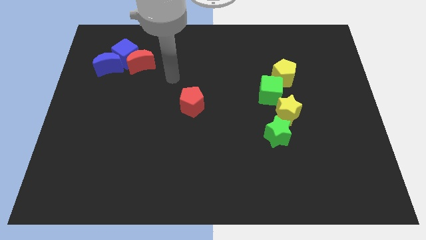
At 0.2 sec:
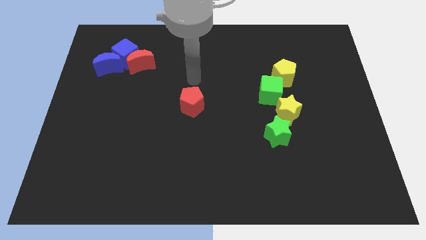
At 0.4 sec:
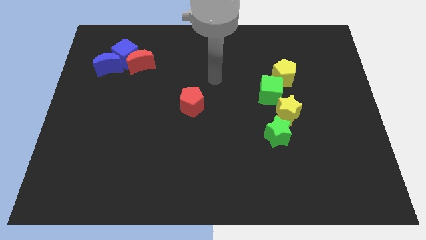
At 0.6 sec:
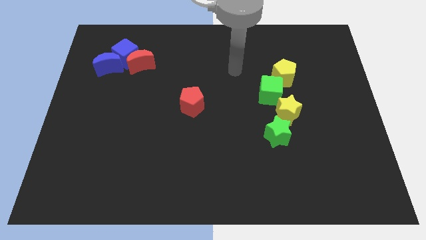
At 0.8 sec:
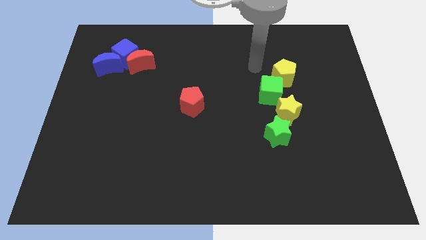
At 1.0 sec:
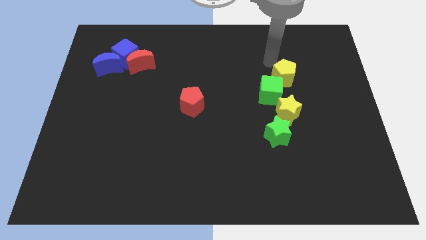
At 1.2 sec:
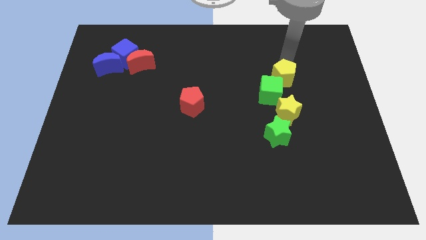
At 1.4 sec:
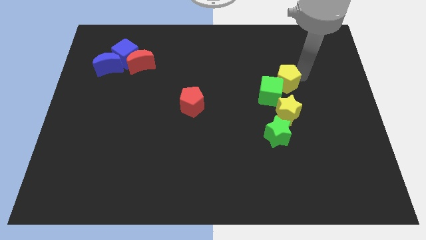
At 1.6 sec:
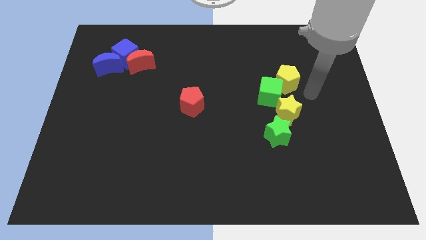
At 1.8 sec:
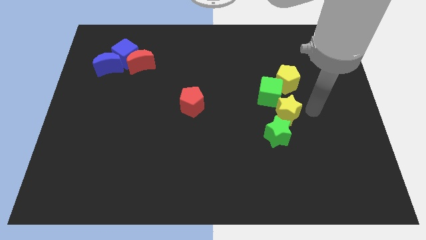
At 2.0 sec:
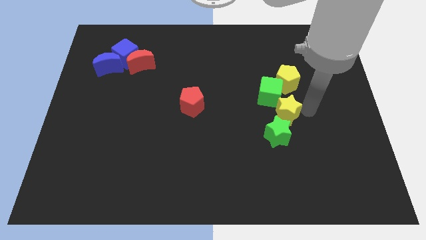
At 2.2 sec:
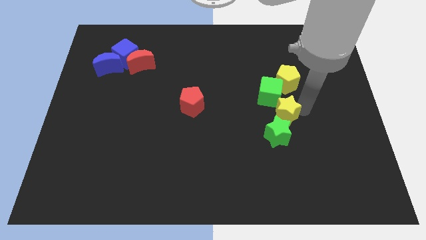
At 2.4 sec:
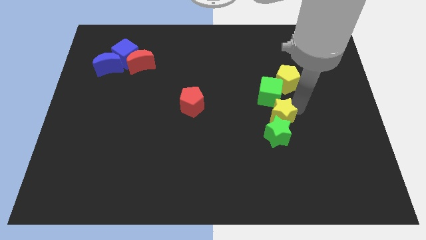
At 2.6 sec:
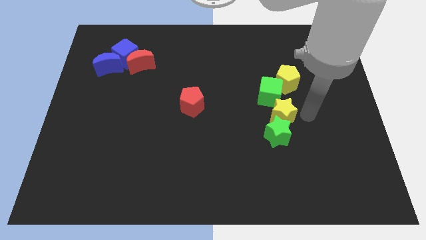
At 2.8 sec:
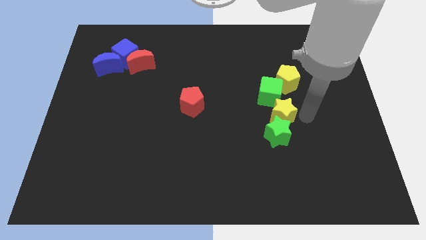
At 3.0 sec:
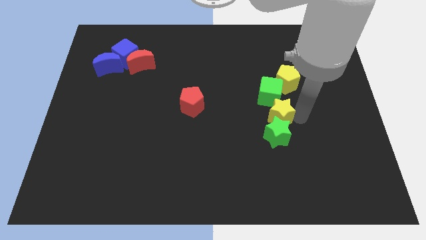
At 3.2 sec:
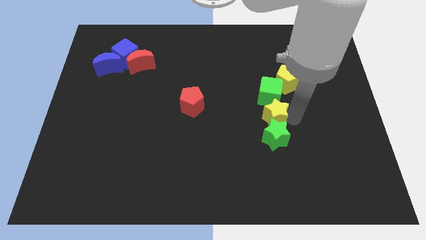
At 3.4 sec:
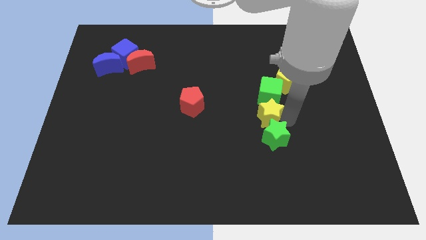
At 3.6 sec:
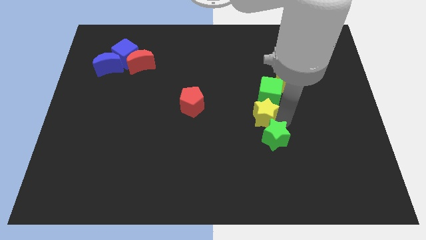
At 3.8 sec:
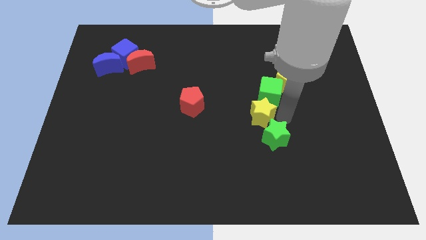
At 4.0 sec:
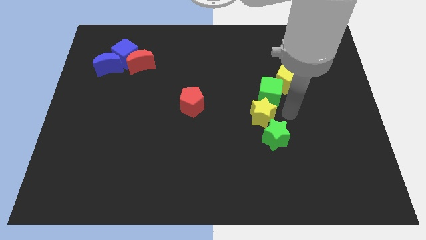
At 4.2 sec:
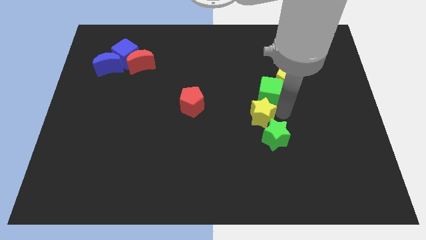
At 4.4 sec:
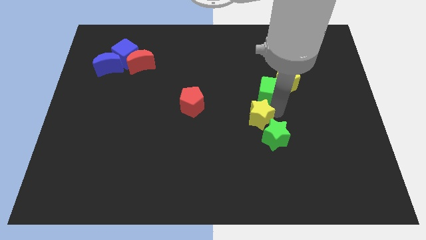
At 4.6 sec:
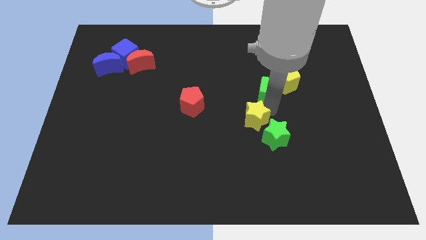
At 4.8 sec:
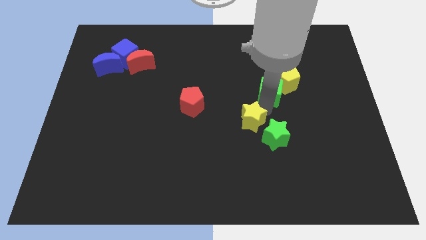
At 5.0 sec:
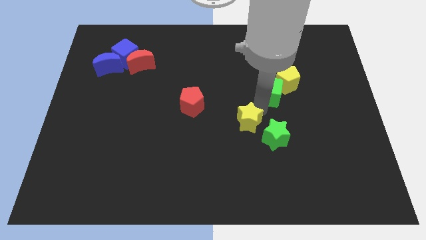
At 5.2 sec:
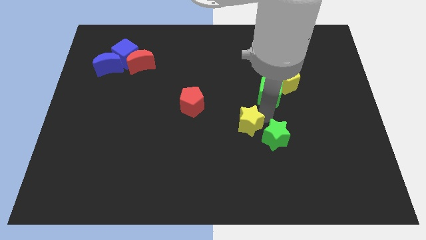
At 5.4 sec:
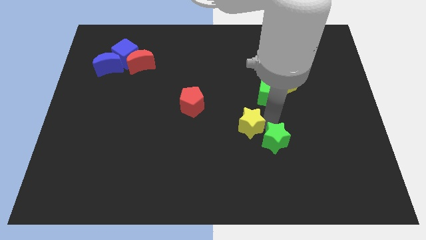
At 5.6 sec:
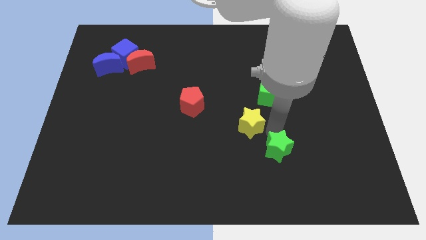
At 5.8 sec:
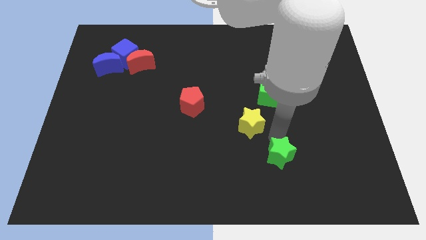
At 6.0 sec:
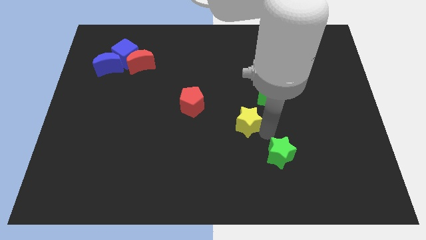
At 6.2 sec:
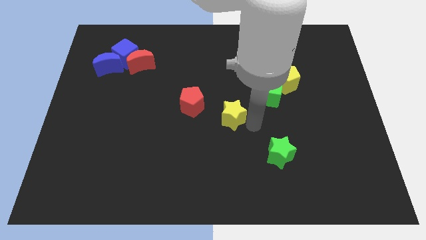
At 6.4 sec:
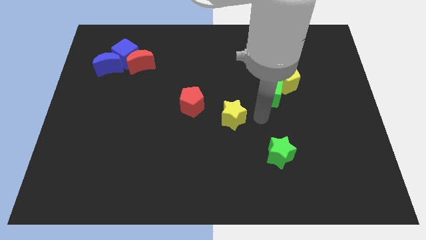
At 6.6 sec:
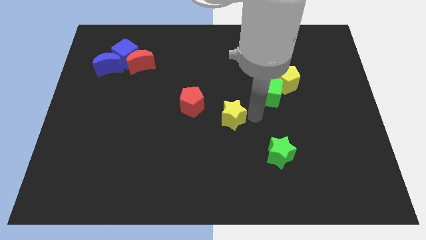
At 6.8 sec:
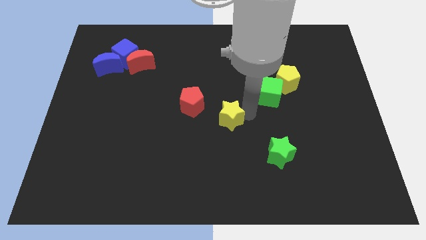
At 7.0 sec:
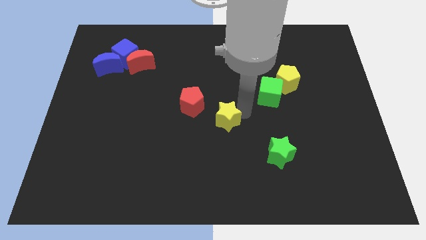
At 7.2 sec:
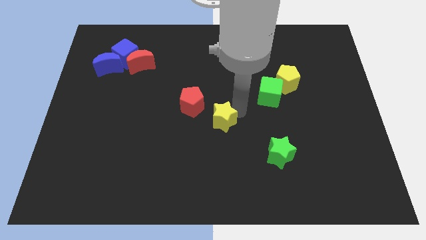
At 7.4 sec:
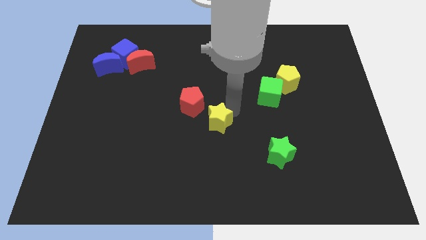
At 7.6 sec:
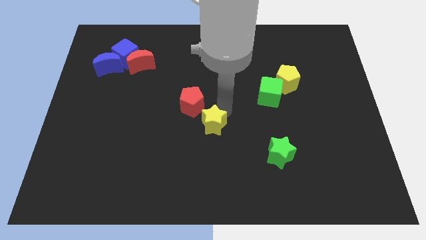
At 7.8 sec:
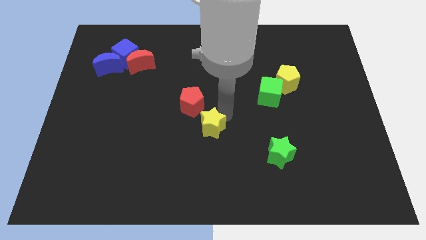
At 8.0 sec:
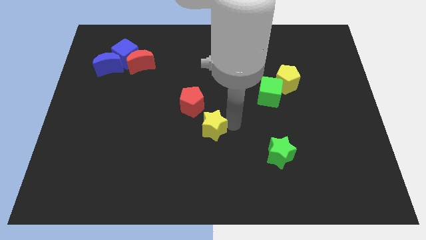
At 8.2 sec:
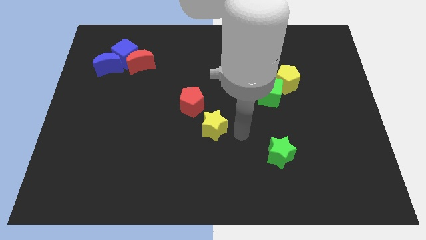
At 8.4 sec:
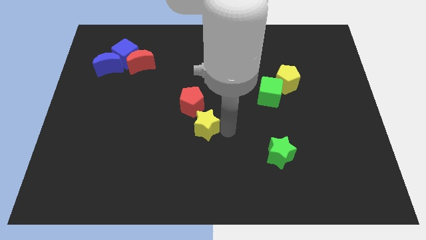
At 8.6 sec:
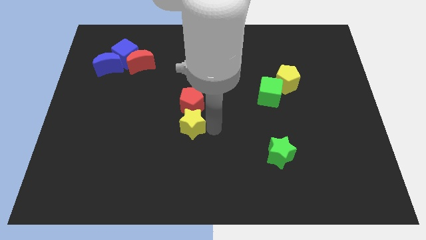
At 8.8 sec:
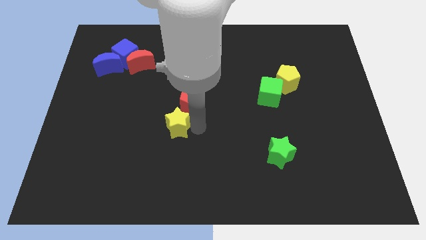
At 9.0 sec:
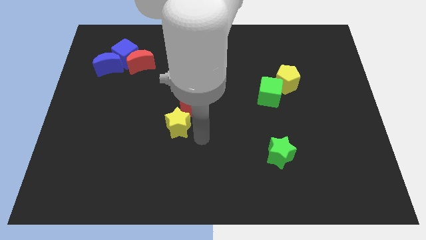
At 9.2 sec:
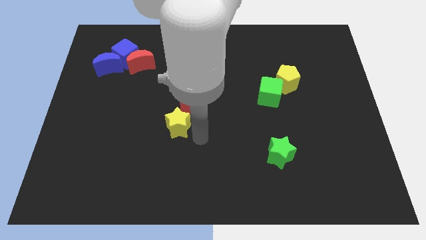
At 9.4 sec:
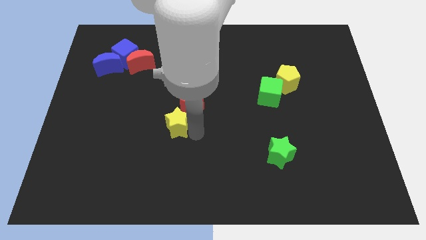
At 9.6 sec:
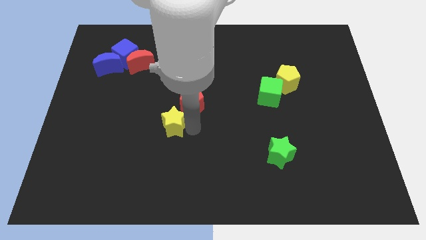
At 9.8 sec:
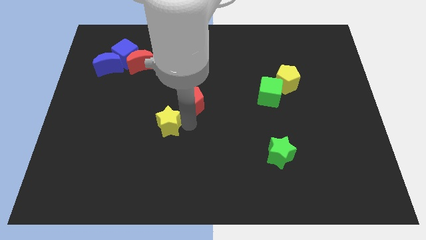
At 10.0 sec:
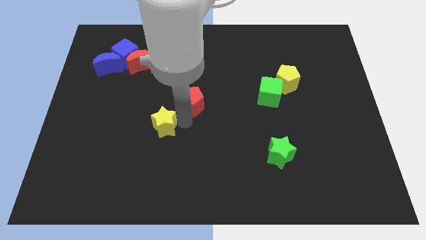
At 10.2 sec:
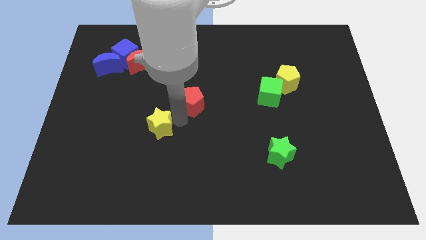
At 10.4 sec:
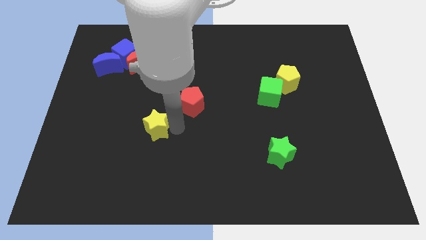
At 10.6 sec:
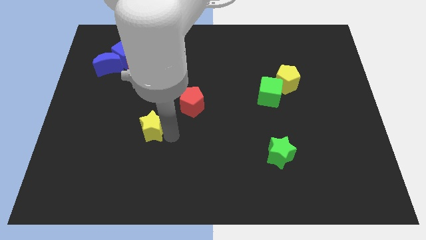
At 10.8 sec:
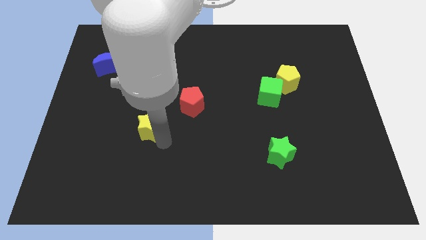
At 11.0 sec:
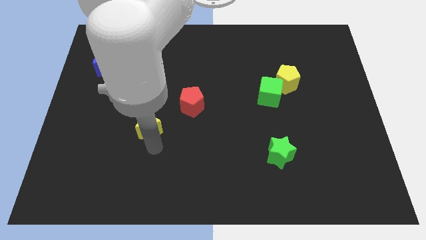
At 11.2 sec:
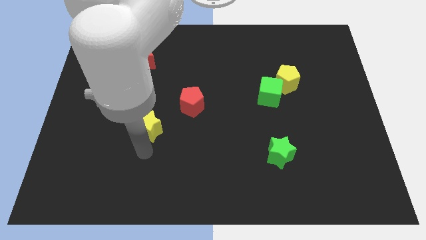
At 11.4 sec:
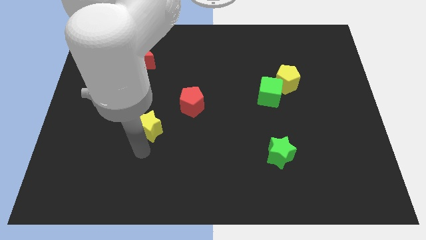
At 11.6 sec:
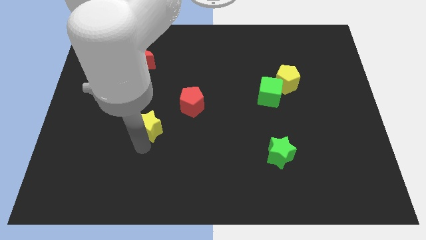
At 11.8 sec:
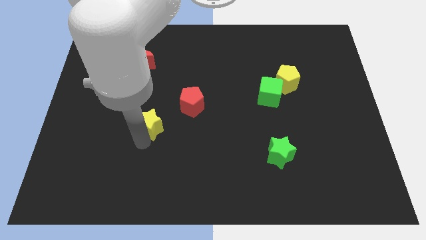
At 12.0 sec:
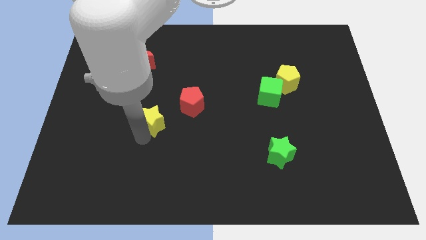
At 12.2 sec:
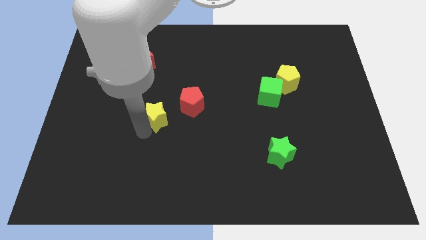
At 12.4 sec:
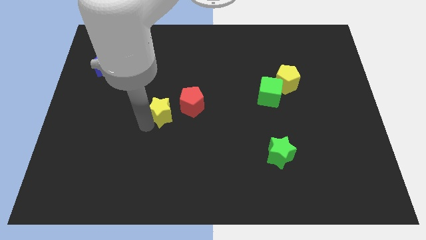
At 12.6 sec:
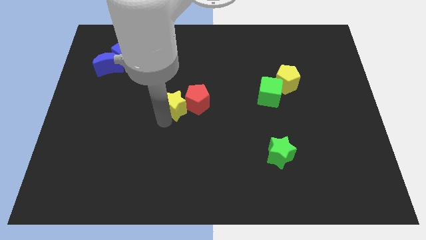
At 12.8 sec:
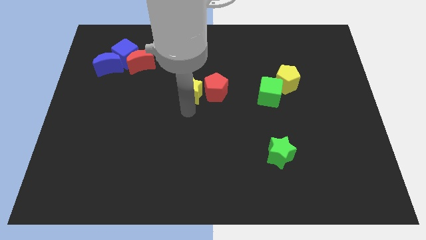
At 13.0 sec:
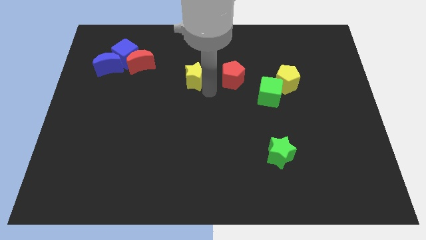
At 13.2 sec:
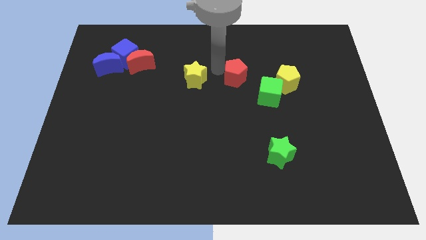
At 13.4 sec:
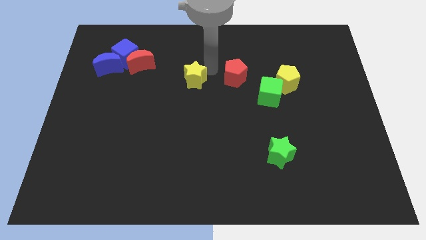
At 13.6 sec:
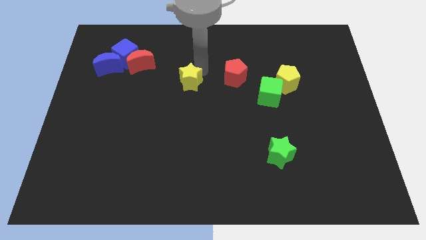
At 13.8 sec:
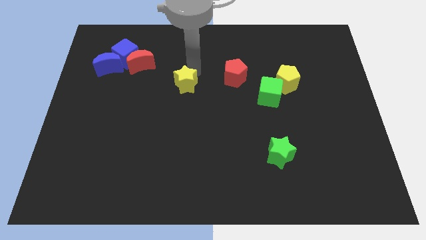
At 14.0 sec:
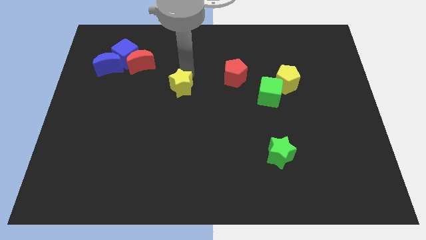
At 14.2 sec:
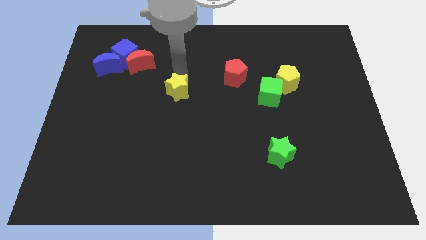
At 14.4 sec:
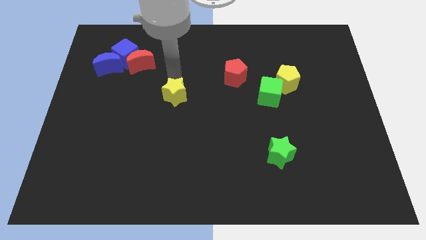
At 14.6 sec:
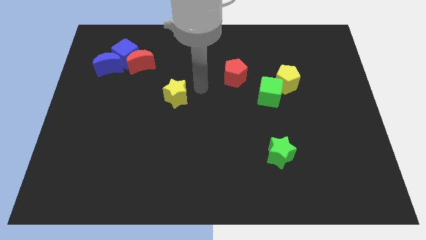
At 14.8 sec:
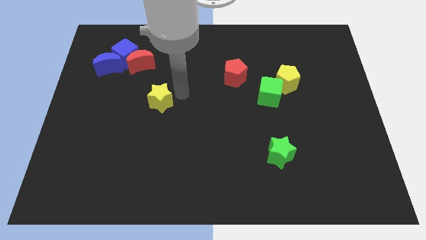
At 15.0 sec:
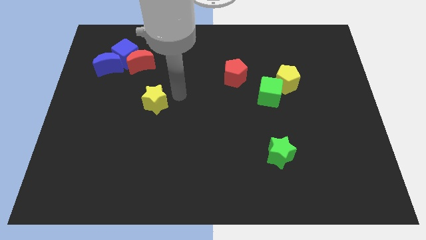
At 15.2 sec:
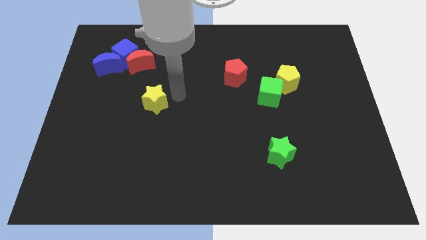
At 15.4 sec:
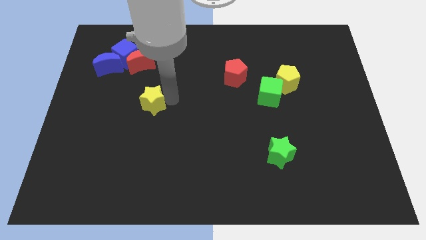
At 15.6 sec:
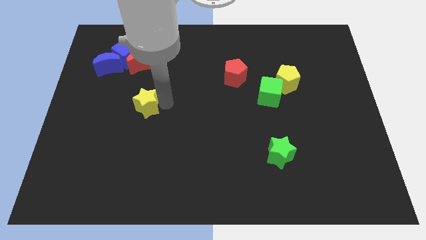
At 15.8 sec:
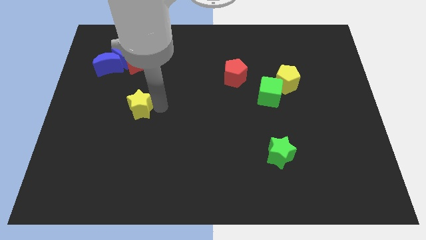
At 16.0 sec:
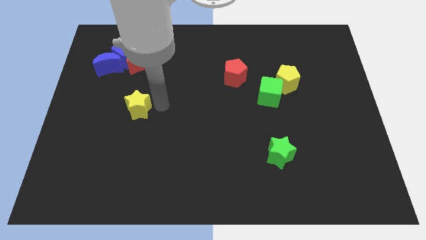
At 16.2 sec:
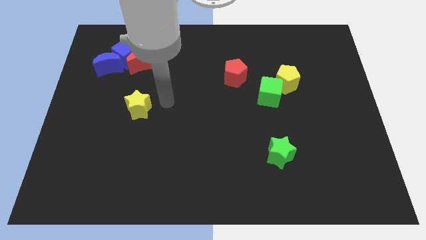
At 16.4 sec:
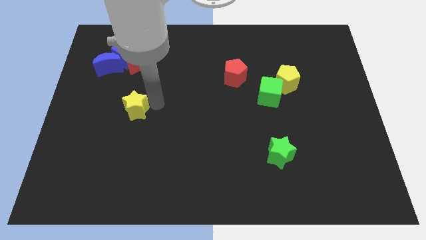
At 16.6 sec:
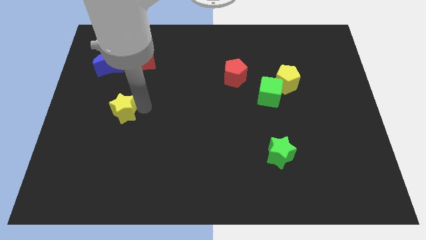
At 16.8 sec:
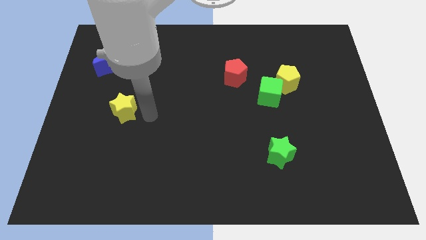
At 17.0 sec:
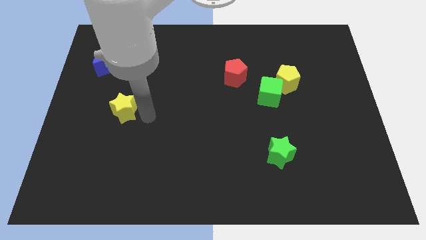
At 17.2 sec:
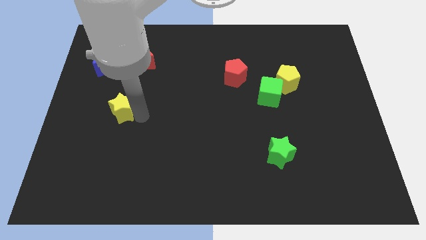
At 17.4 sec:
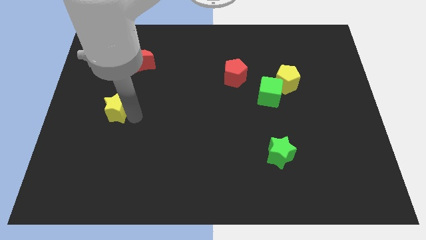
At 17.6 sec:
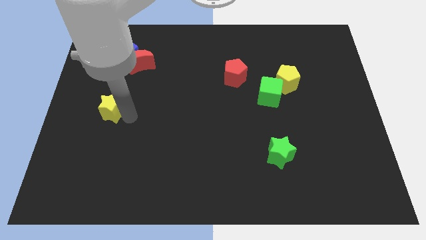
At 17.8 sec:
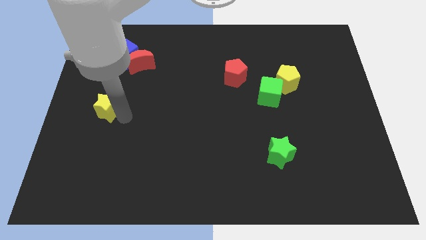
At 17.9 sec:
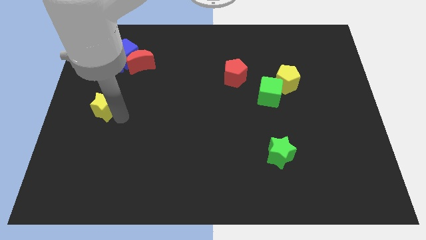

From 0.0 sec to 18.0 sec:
move the yellow star to the left side
